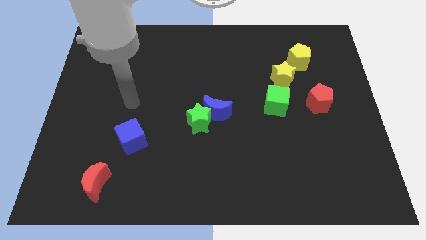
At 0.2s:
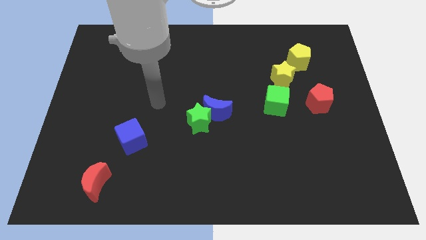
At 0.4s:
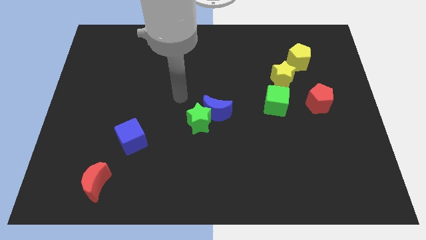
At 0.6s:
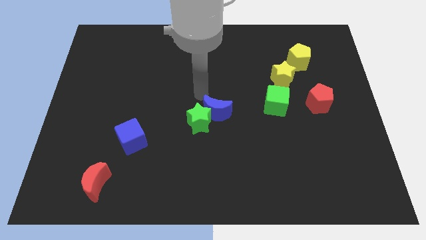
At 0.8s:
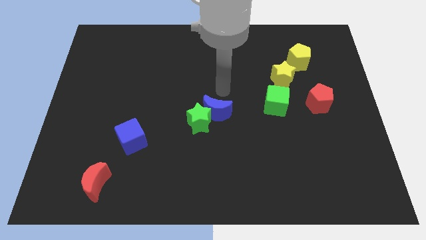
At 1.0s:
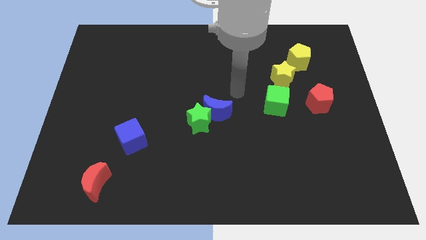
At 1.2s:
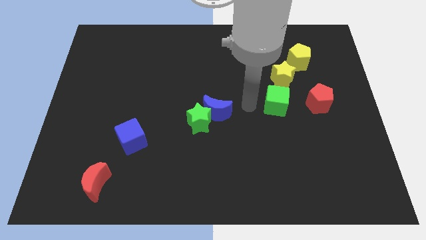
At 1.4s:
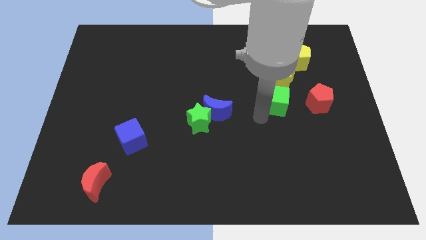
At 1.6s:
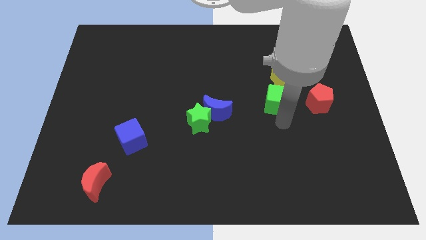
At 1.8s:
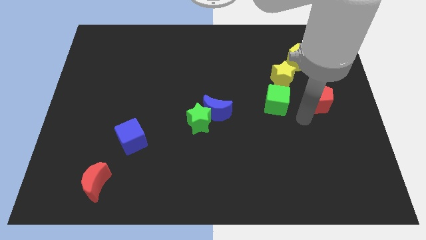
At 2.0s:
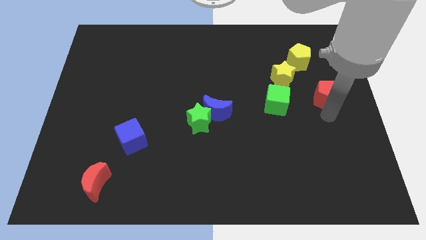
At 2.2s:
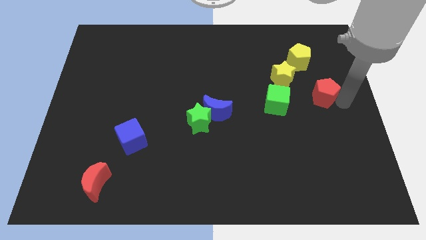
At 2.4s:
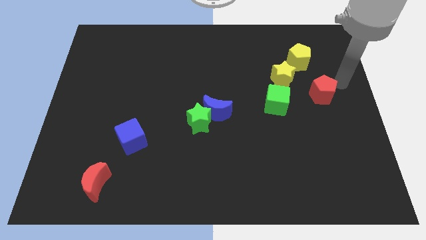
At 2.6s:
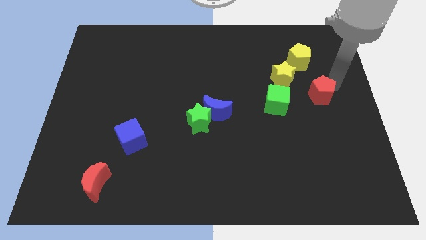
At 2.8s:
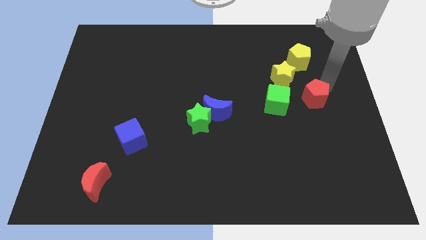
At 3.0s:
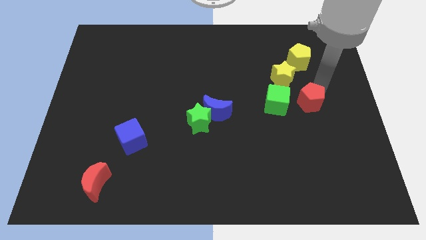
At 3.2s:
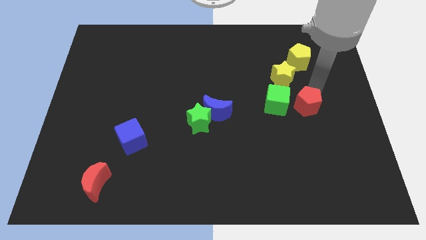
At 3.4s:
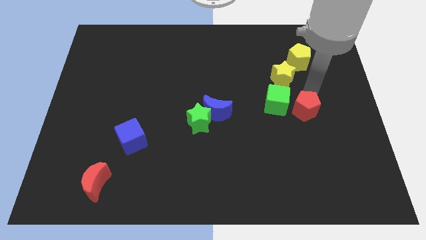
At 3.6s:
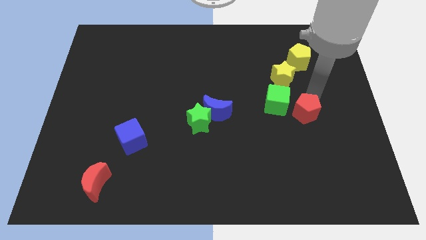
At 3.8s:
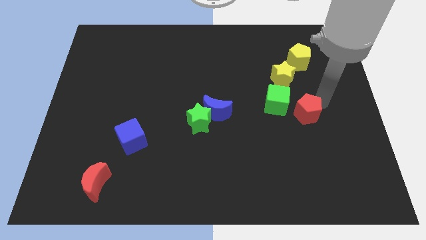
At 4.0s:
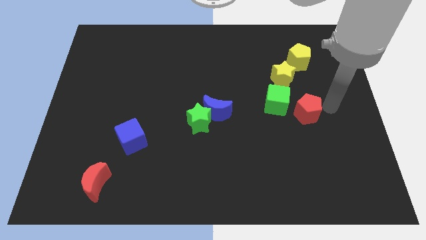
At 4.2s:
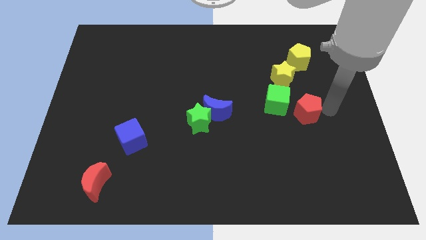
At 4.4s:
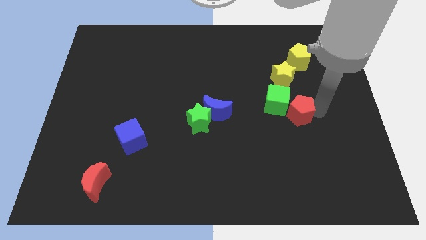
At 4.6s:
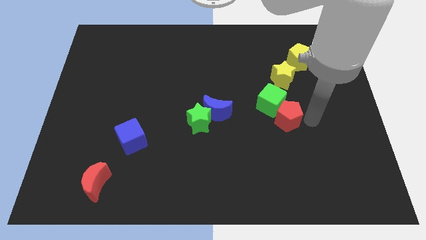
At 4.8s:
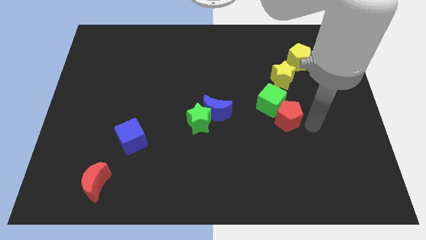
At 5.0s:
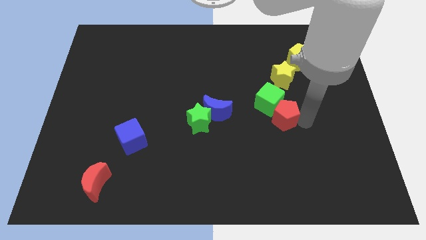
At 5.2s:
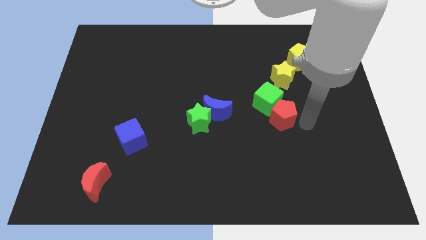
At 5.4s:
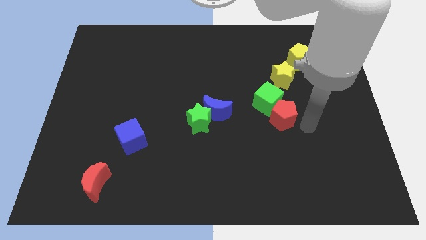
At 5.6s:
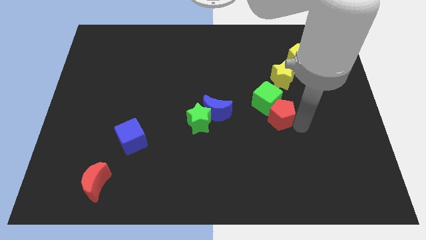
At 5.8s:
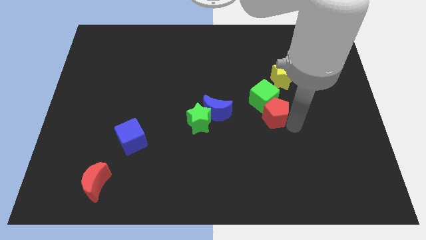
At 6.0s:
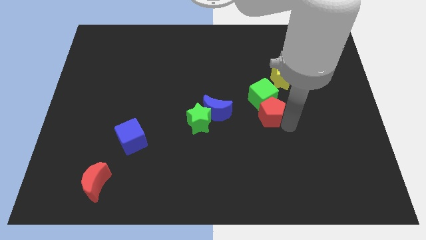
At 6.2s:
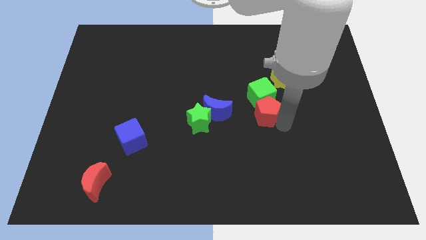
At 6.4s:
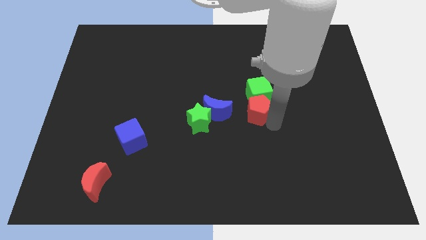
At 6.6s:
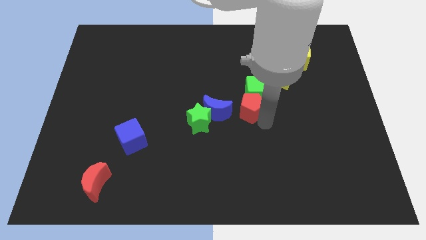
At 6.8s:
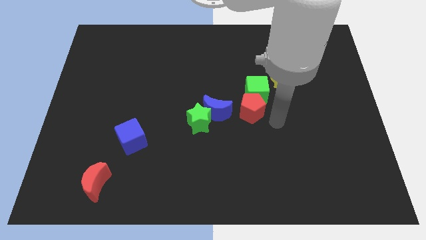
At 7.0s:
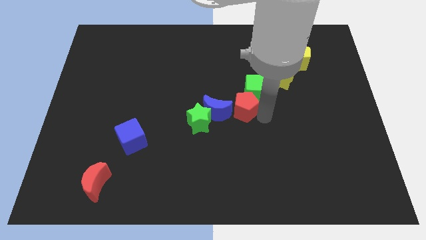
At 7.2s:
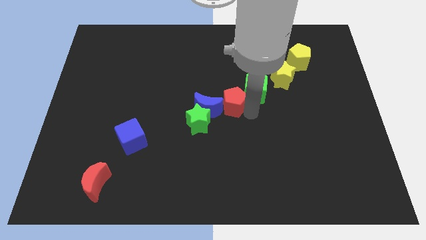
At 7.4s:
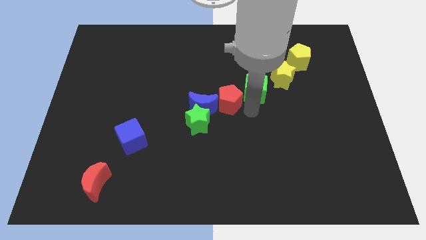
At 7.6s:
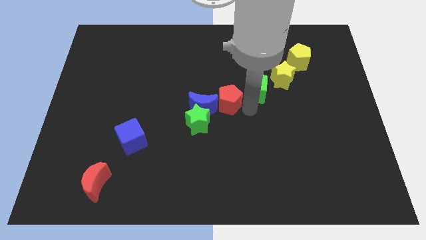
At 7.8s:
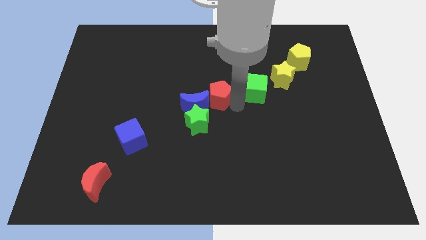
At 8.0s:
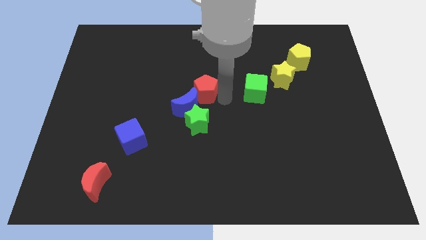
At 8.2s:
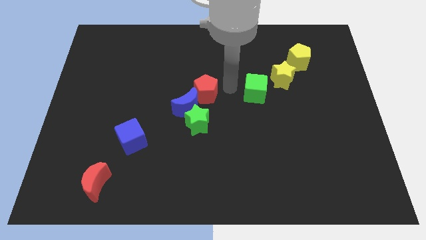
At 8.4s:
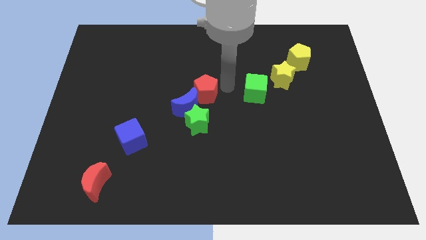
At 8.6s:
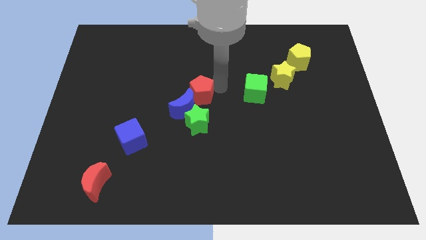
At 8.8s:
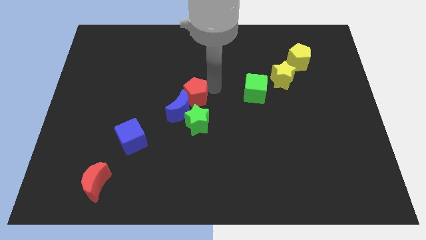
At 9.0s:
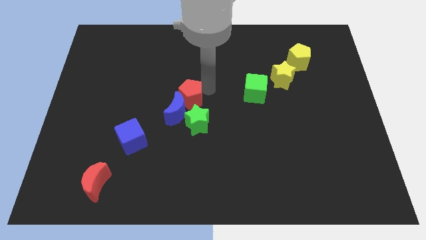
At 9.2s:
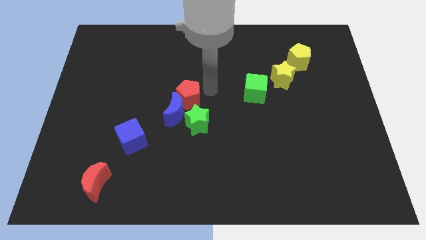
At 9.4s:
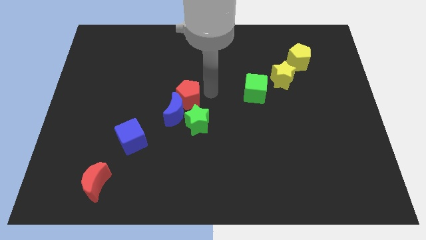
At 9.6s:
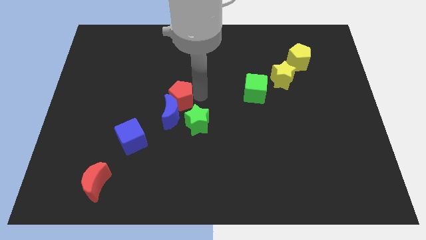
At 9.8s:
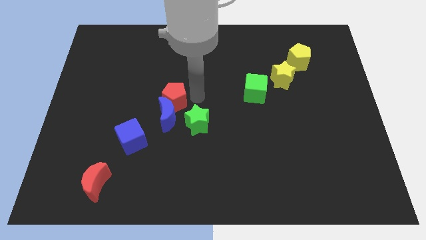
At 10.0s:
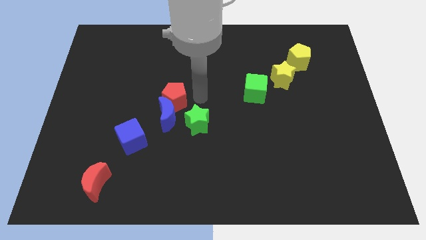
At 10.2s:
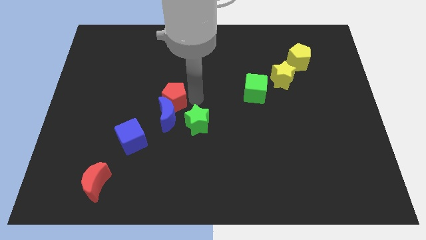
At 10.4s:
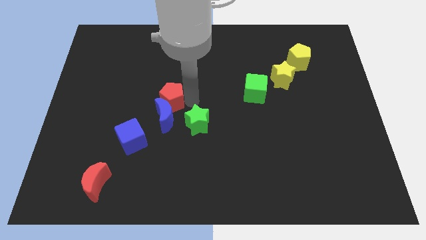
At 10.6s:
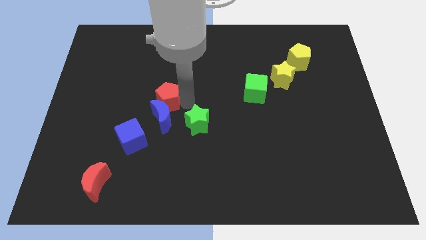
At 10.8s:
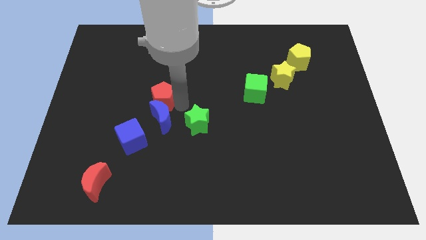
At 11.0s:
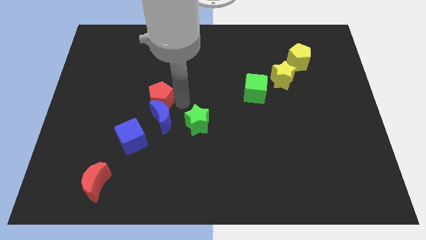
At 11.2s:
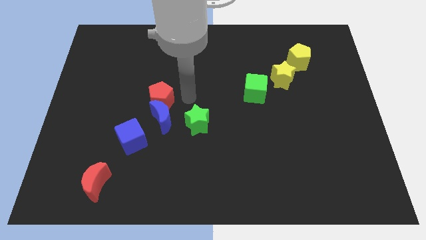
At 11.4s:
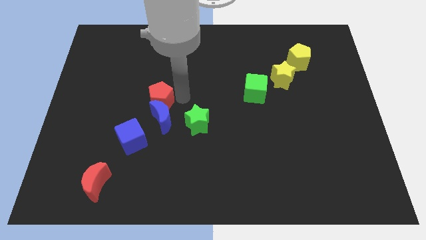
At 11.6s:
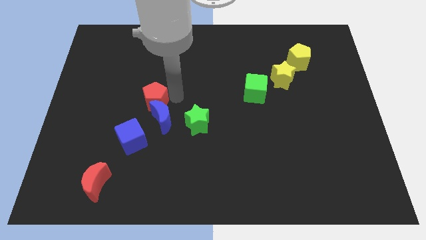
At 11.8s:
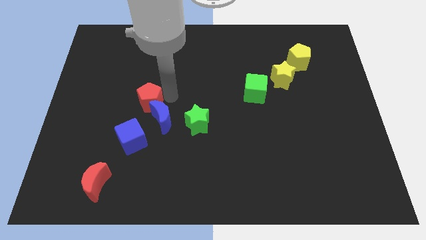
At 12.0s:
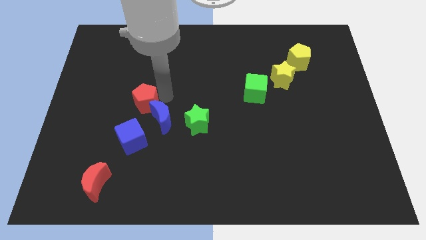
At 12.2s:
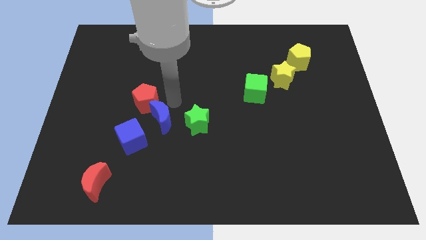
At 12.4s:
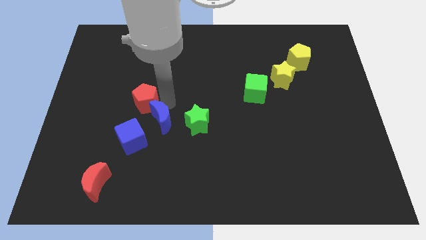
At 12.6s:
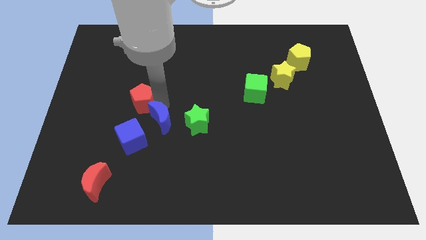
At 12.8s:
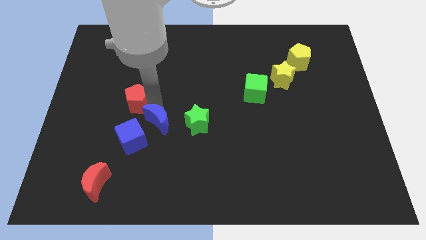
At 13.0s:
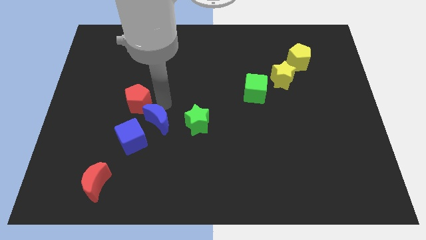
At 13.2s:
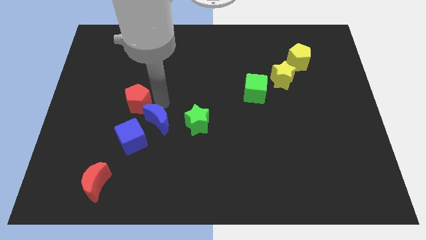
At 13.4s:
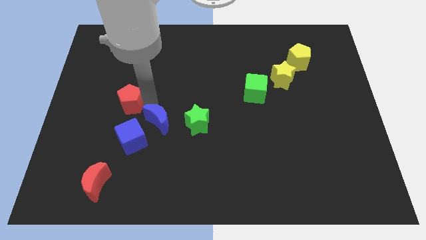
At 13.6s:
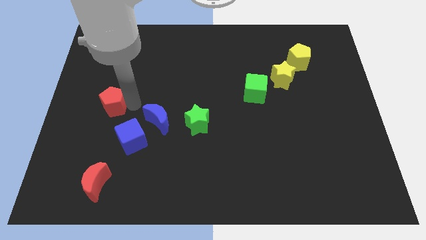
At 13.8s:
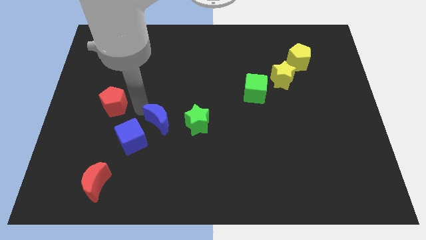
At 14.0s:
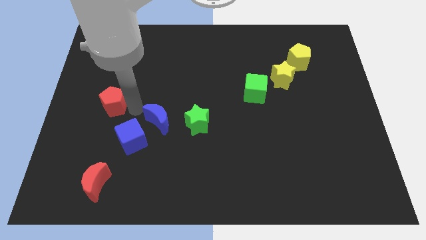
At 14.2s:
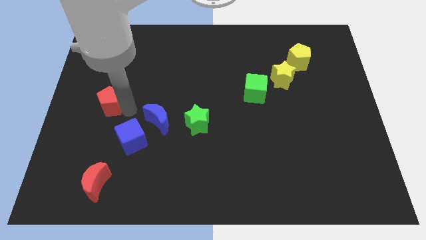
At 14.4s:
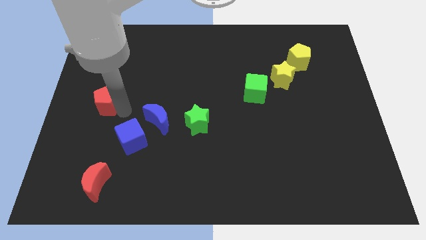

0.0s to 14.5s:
put the red pentagon to the left side of the board
